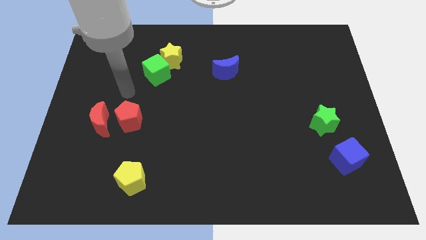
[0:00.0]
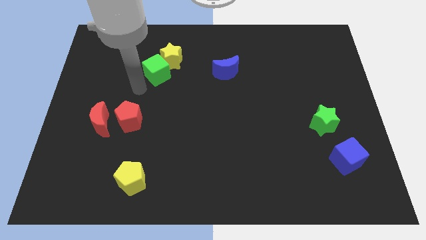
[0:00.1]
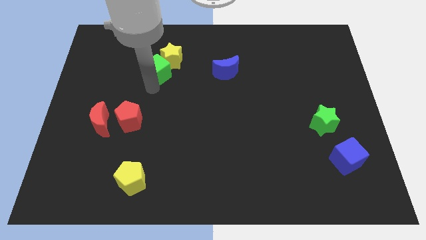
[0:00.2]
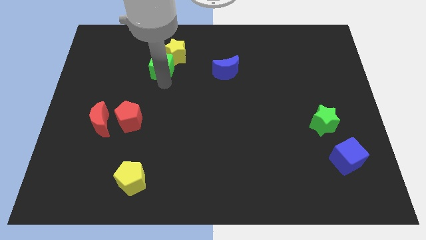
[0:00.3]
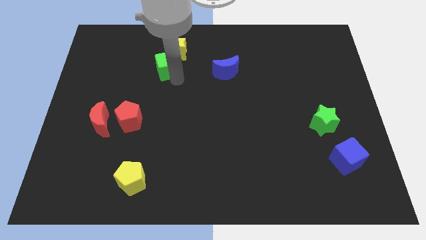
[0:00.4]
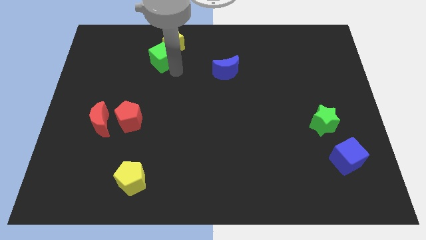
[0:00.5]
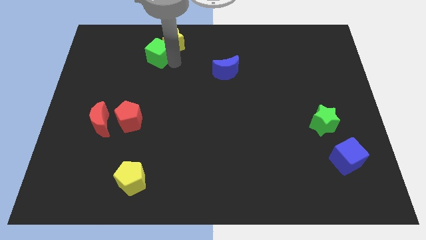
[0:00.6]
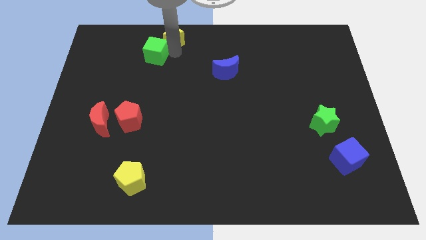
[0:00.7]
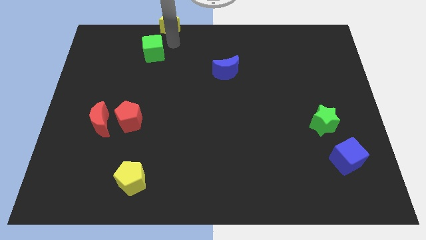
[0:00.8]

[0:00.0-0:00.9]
move the green cube away from the yellow star

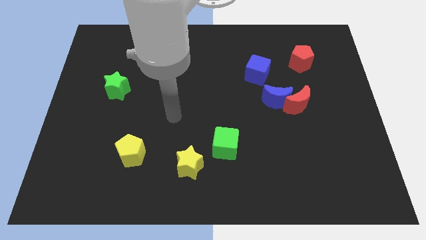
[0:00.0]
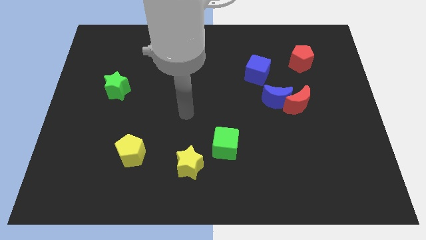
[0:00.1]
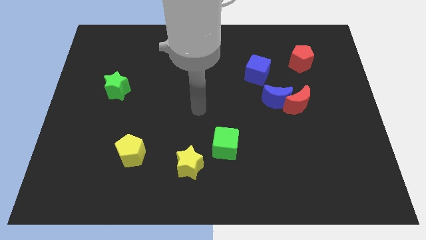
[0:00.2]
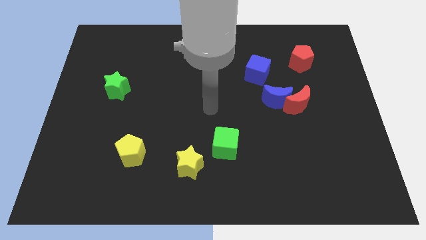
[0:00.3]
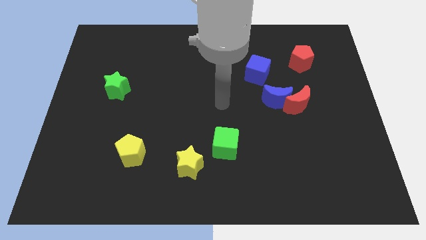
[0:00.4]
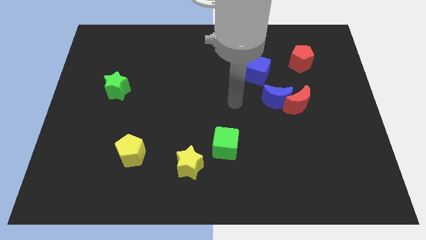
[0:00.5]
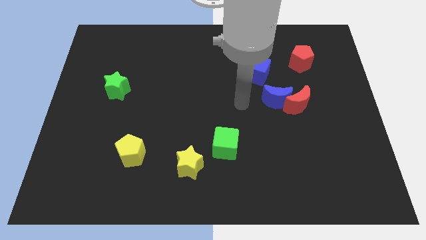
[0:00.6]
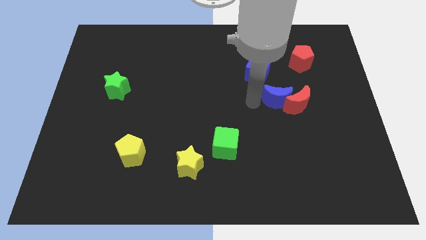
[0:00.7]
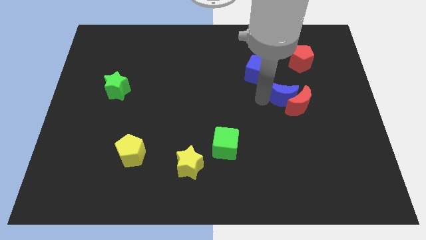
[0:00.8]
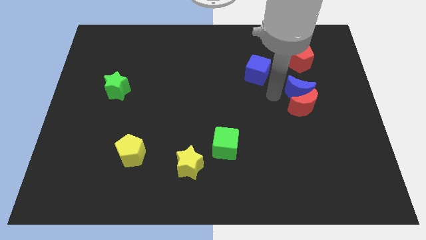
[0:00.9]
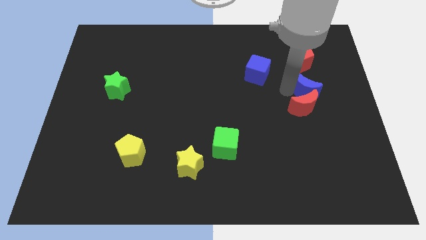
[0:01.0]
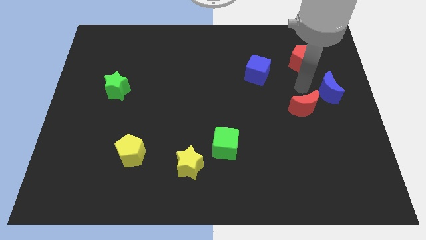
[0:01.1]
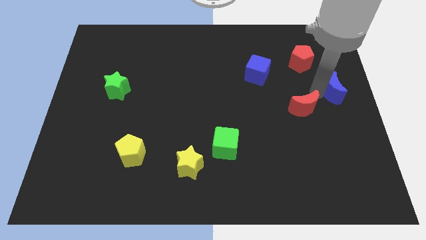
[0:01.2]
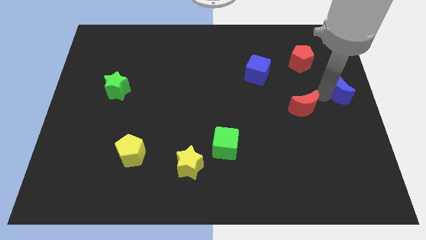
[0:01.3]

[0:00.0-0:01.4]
separate the red moon from the blue moon

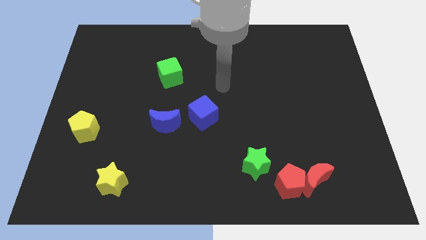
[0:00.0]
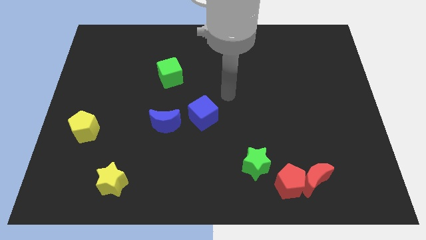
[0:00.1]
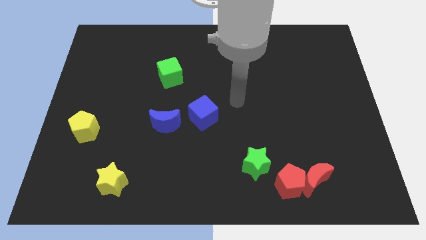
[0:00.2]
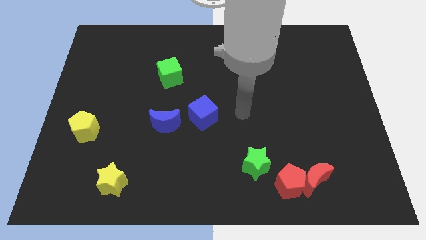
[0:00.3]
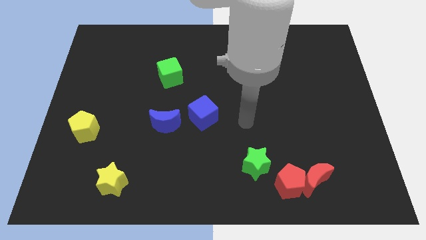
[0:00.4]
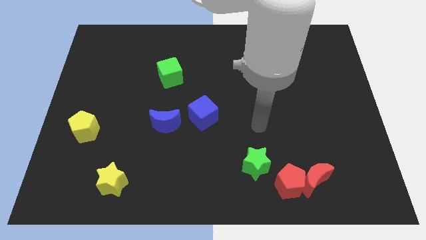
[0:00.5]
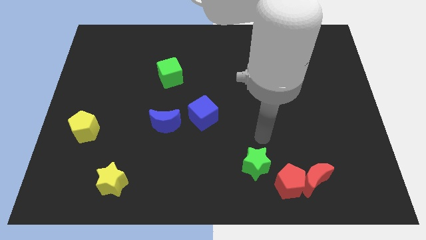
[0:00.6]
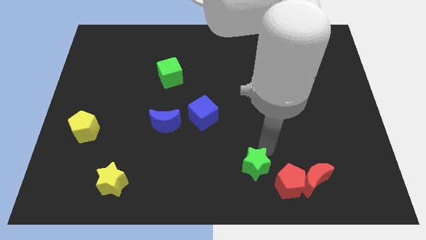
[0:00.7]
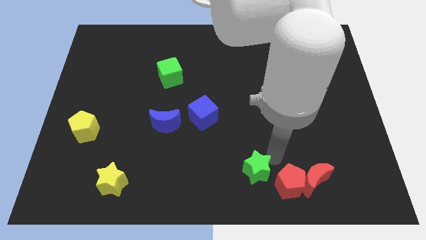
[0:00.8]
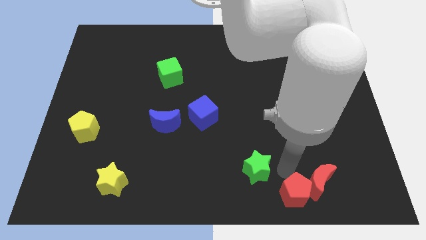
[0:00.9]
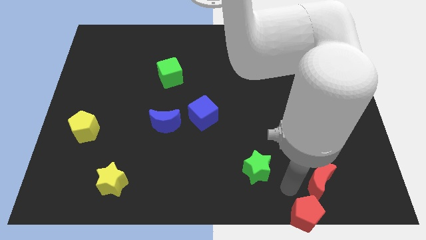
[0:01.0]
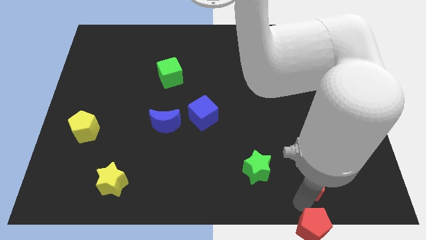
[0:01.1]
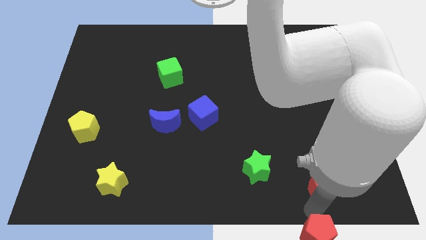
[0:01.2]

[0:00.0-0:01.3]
pull the red moon apart from the red pentagon

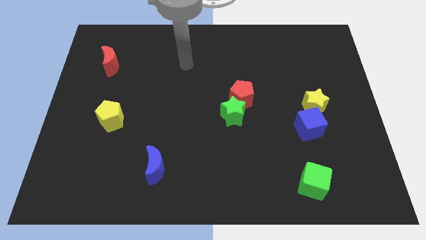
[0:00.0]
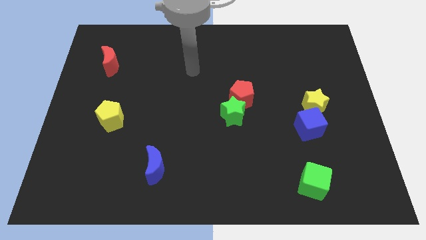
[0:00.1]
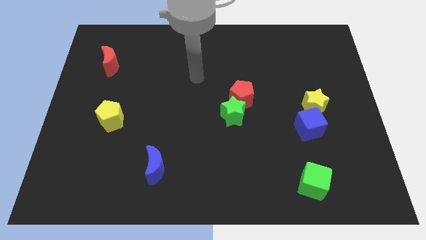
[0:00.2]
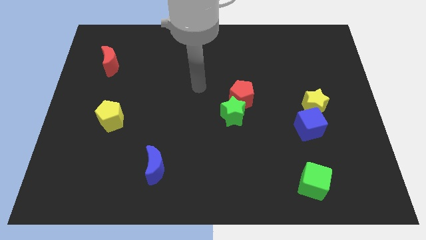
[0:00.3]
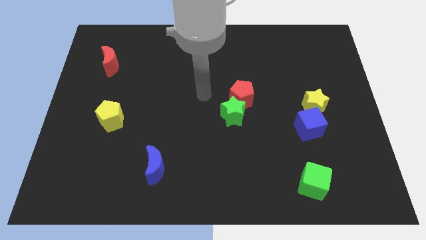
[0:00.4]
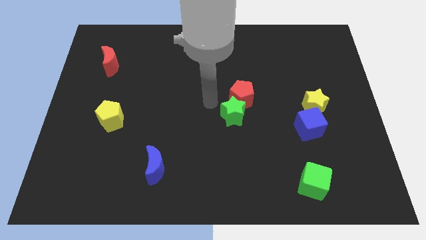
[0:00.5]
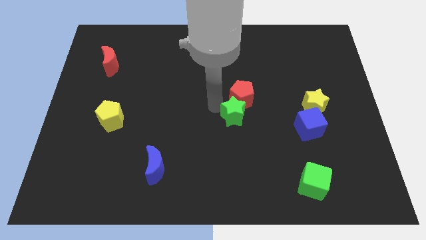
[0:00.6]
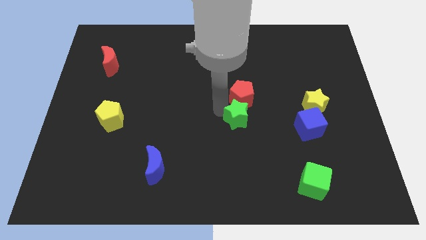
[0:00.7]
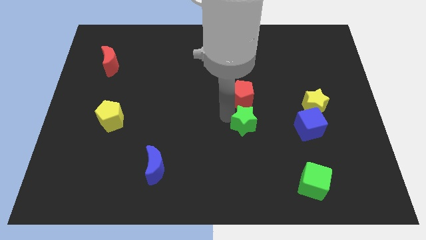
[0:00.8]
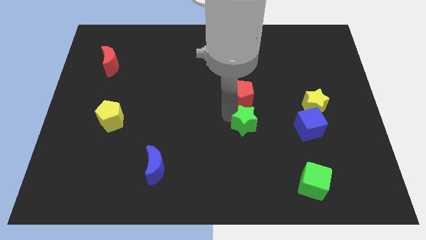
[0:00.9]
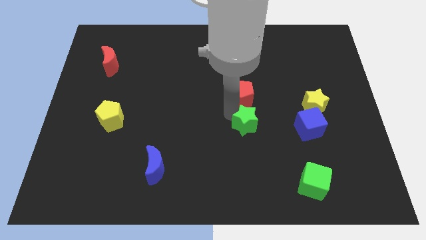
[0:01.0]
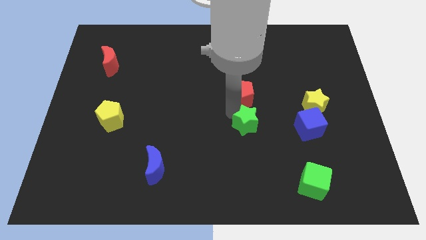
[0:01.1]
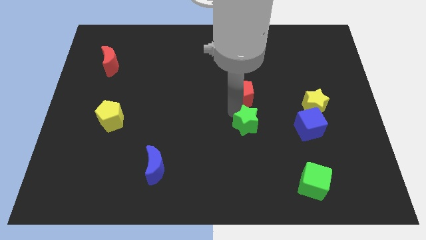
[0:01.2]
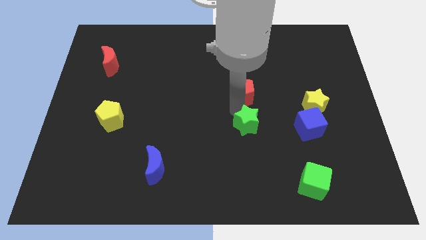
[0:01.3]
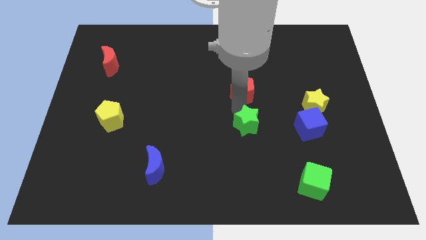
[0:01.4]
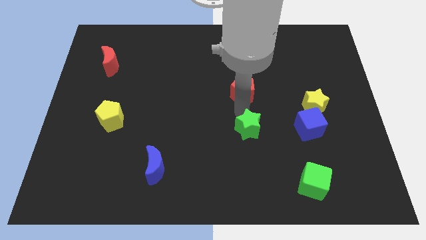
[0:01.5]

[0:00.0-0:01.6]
move the red pentagon away from the green star

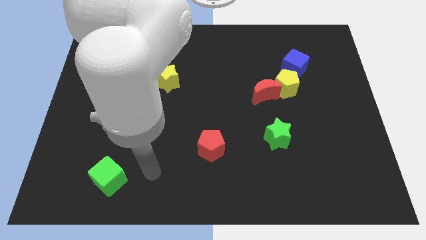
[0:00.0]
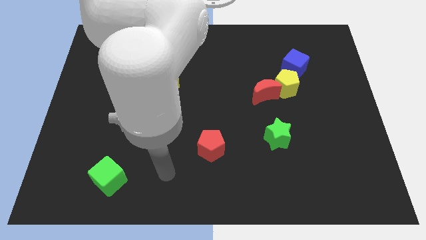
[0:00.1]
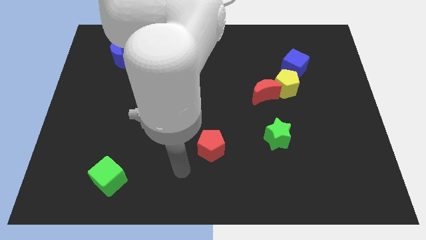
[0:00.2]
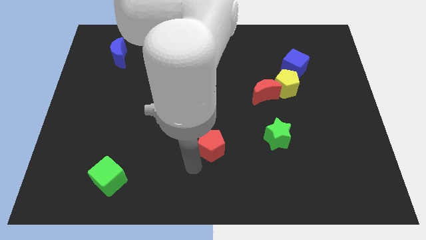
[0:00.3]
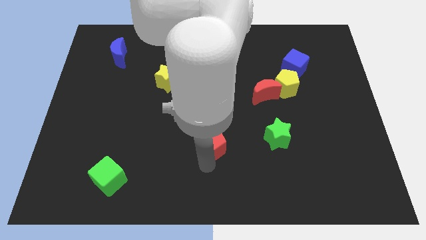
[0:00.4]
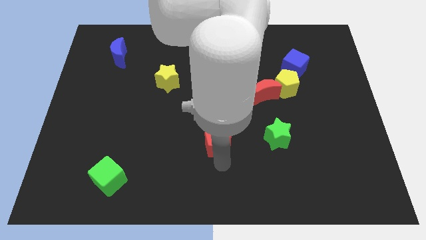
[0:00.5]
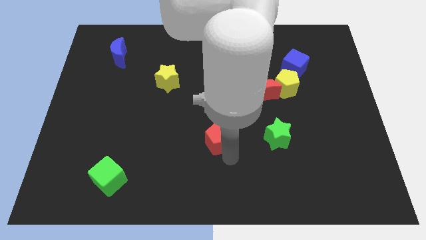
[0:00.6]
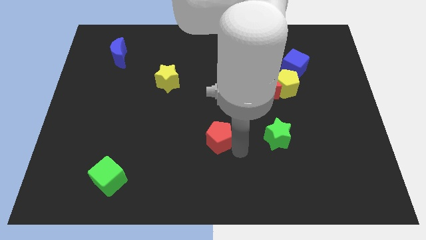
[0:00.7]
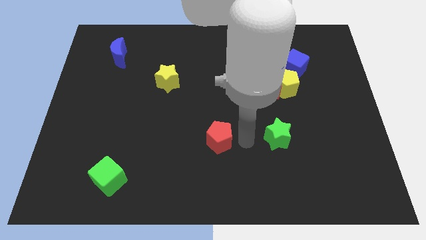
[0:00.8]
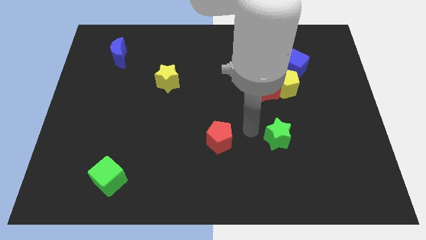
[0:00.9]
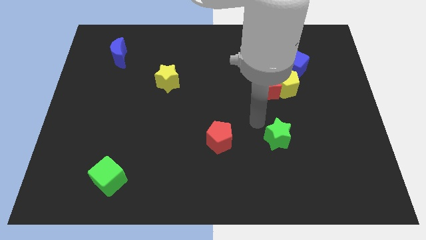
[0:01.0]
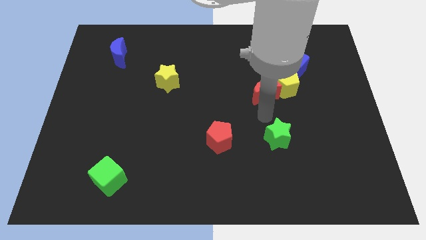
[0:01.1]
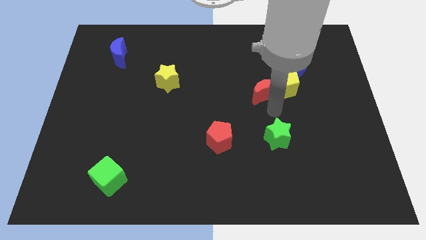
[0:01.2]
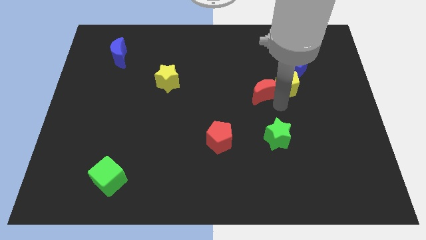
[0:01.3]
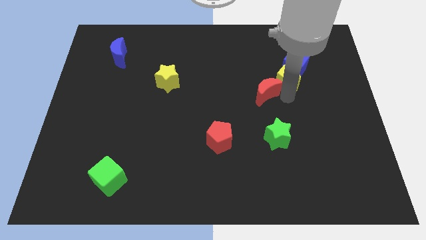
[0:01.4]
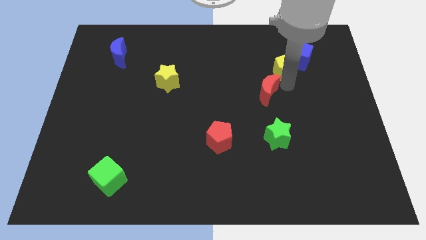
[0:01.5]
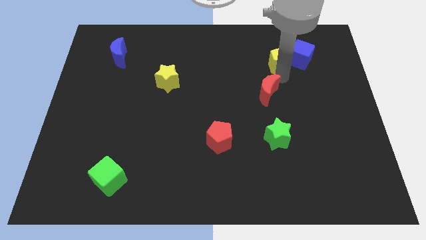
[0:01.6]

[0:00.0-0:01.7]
pull the red moon apart from the yellow pentagon

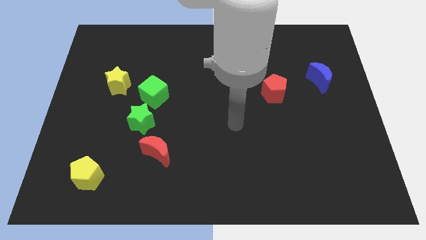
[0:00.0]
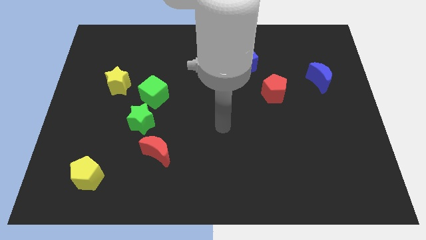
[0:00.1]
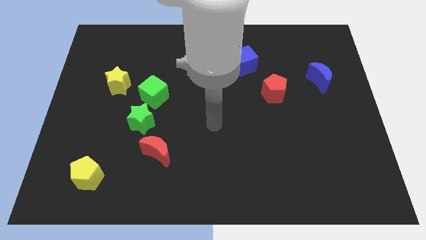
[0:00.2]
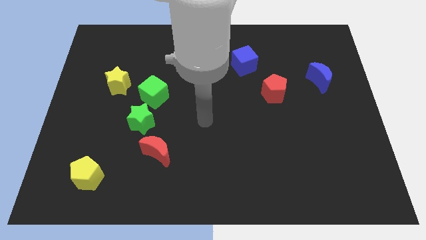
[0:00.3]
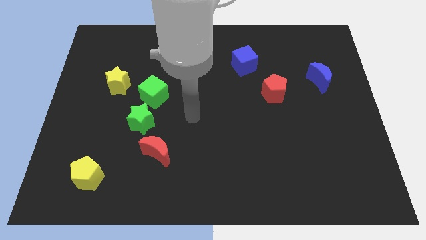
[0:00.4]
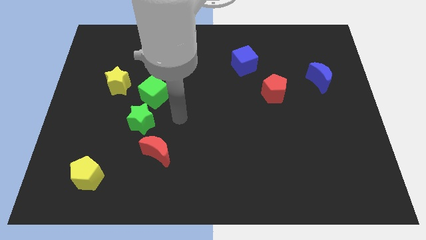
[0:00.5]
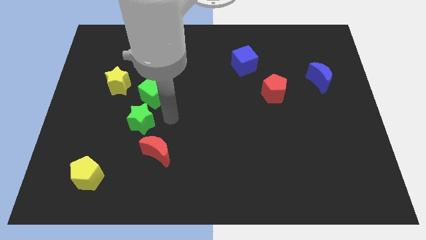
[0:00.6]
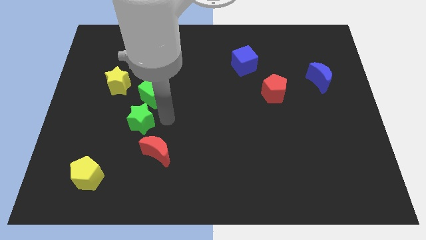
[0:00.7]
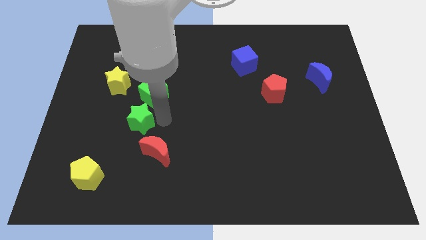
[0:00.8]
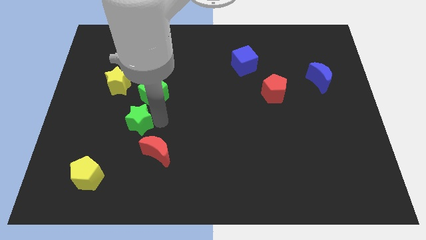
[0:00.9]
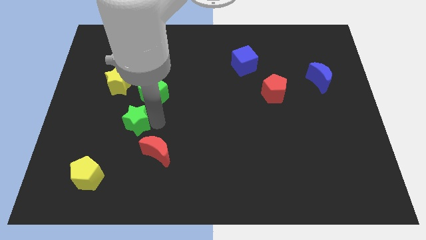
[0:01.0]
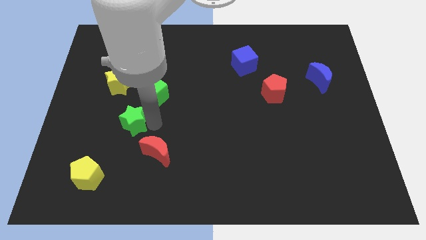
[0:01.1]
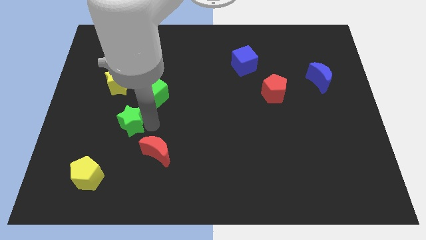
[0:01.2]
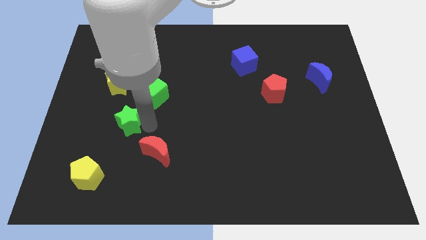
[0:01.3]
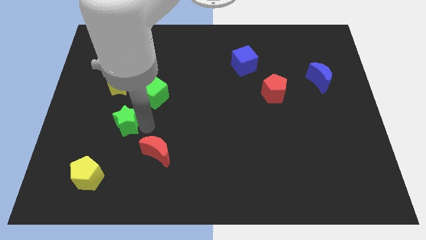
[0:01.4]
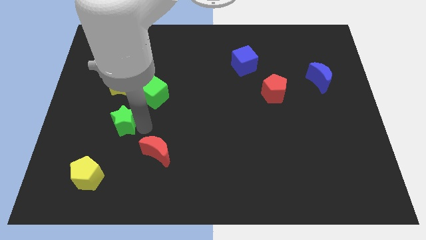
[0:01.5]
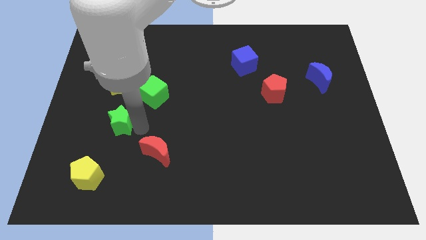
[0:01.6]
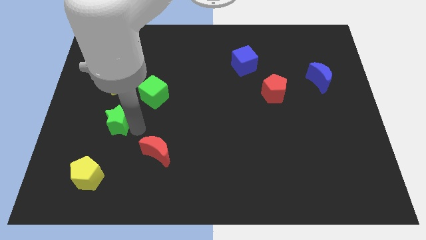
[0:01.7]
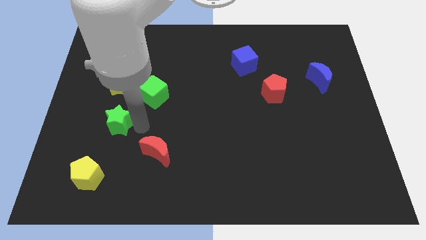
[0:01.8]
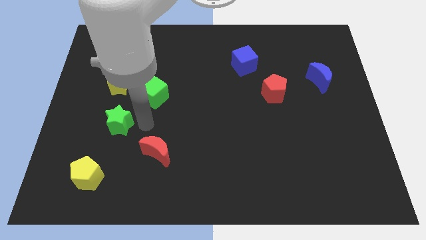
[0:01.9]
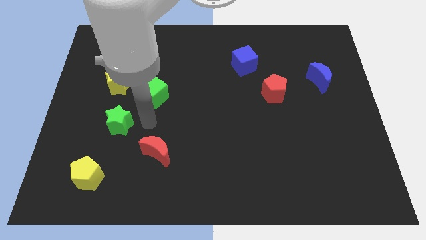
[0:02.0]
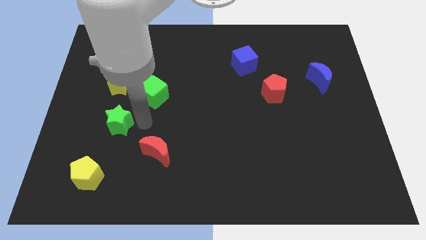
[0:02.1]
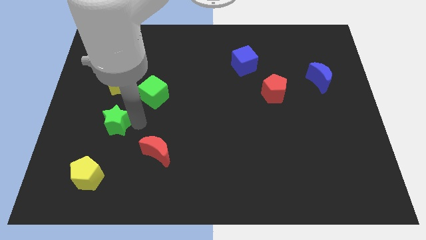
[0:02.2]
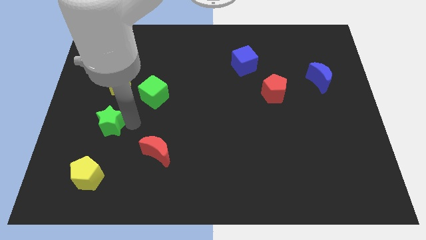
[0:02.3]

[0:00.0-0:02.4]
separate the green star from the green cube and red moon
